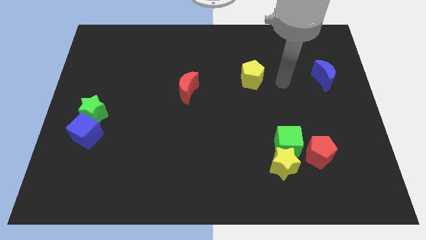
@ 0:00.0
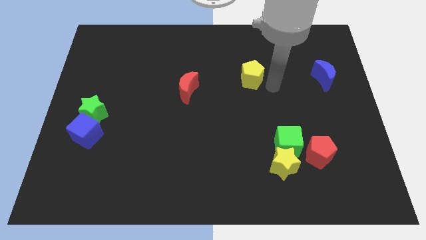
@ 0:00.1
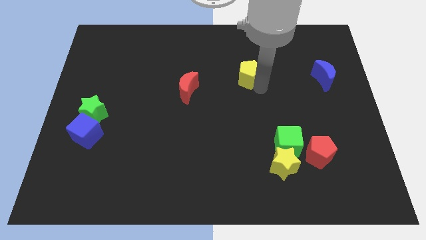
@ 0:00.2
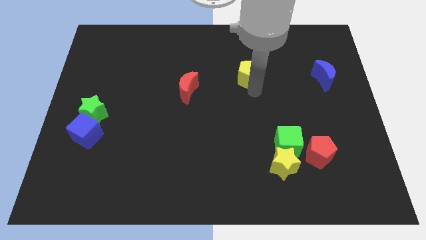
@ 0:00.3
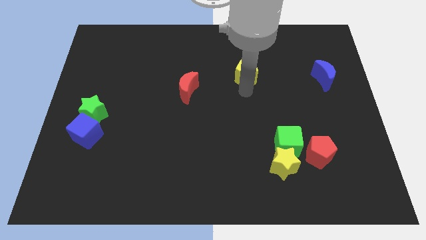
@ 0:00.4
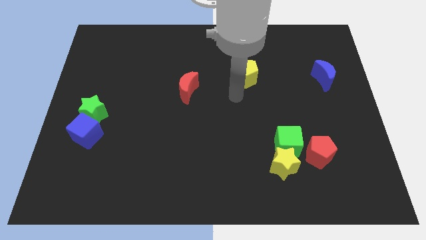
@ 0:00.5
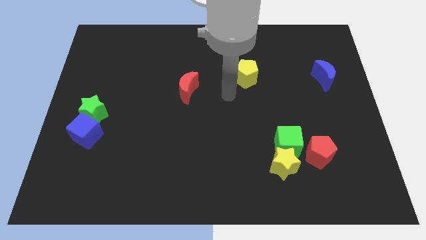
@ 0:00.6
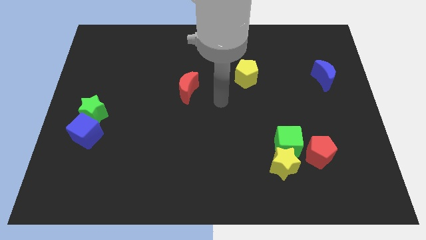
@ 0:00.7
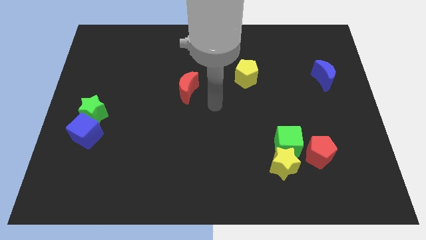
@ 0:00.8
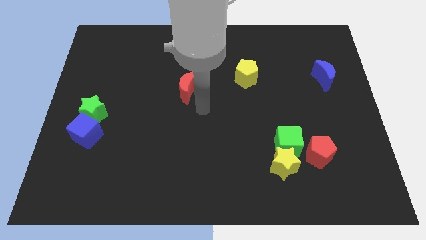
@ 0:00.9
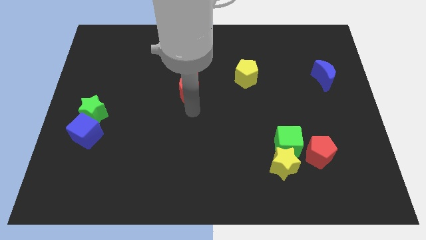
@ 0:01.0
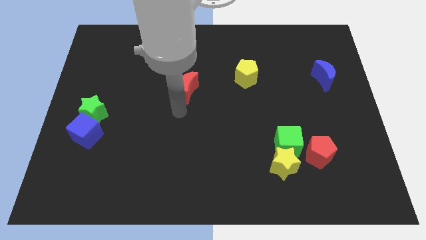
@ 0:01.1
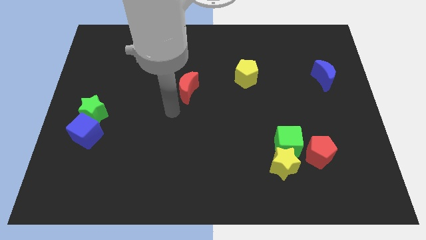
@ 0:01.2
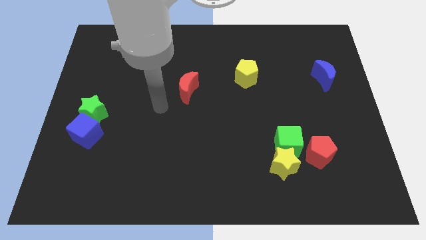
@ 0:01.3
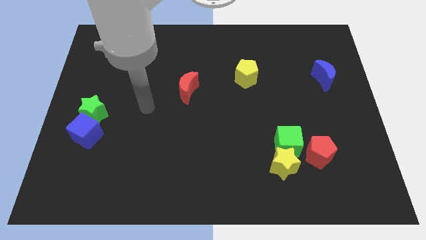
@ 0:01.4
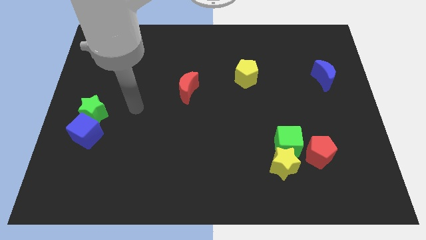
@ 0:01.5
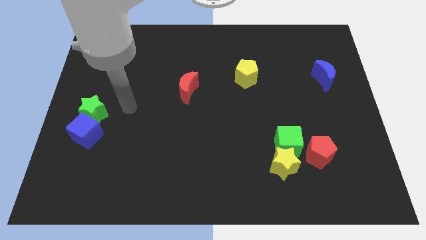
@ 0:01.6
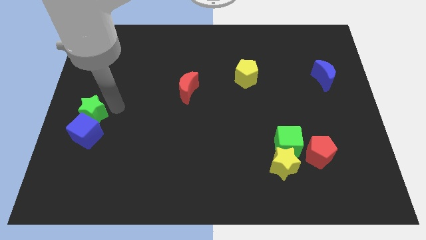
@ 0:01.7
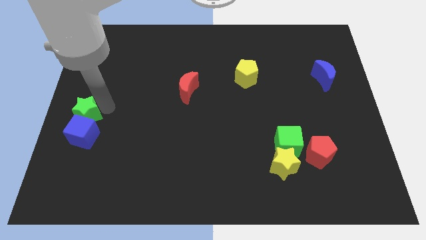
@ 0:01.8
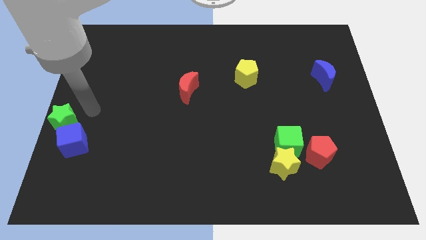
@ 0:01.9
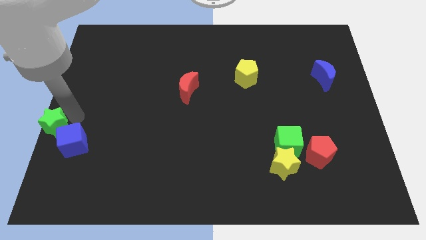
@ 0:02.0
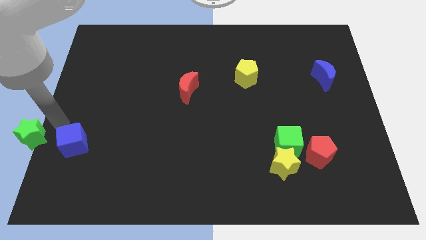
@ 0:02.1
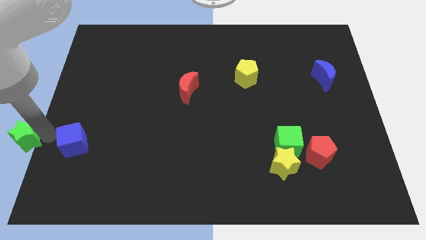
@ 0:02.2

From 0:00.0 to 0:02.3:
pull the blue cube apart from the green star

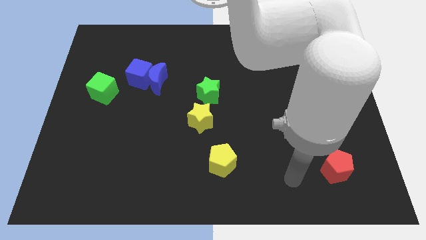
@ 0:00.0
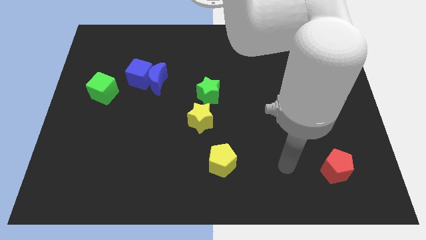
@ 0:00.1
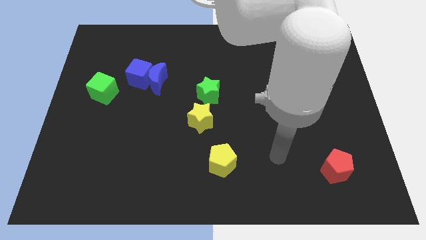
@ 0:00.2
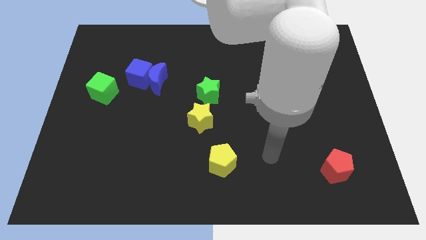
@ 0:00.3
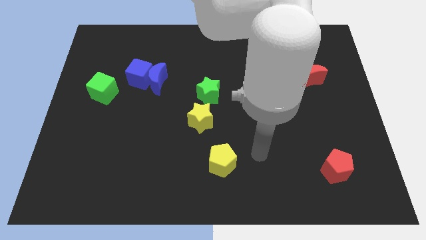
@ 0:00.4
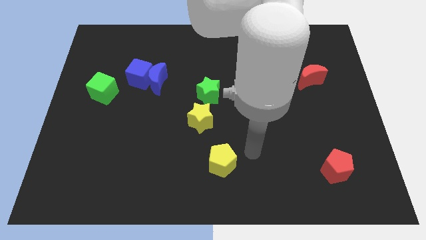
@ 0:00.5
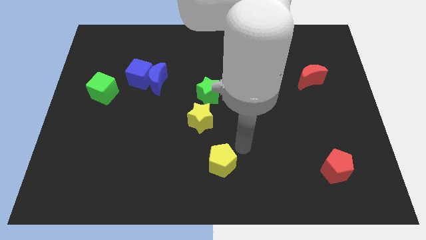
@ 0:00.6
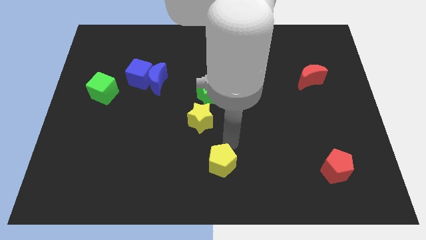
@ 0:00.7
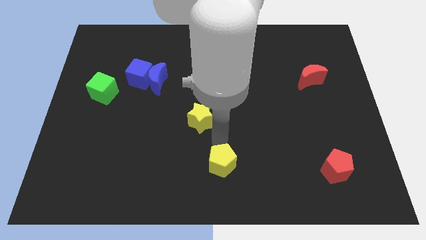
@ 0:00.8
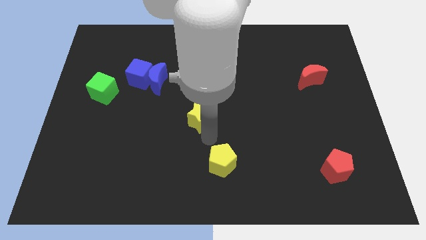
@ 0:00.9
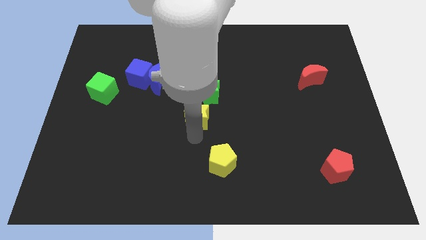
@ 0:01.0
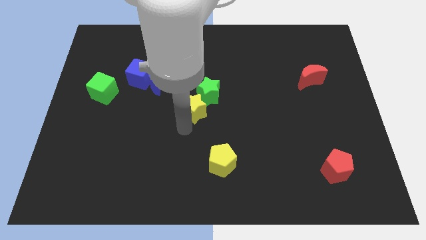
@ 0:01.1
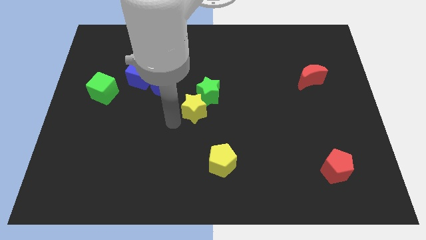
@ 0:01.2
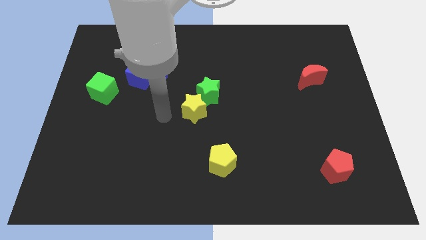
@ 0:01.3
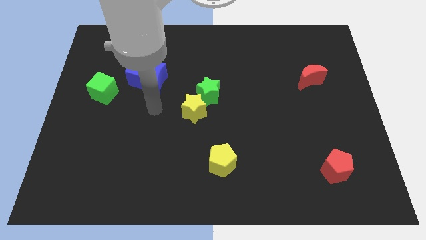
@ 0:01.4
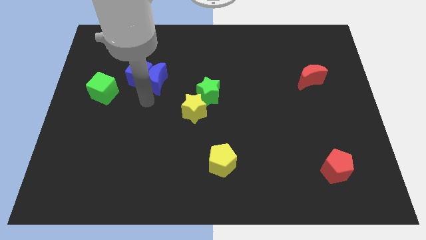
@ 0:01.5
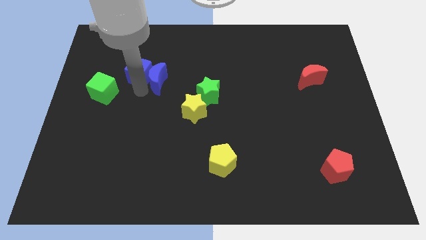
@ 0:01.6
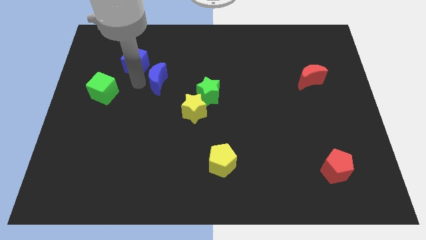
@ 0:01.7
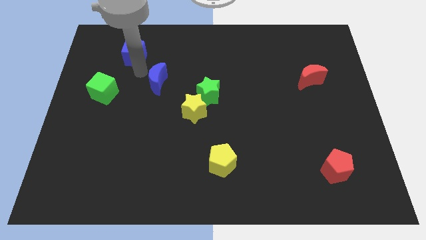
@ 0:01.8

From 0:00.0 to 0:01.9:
move the blue moon away from the blue cube

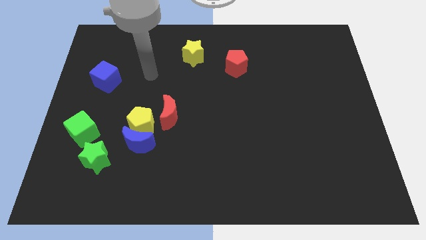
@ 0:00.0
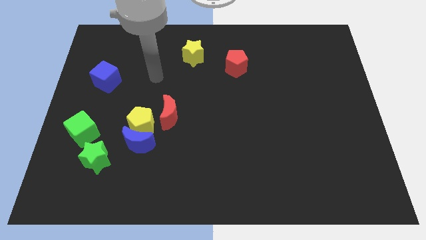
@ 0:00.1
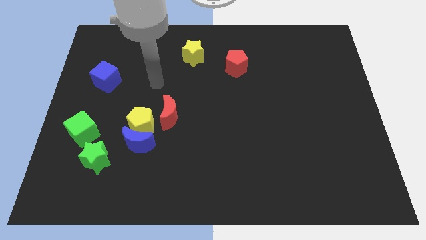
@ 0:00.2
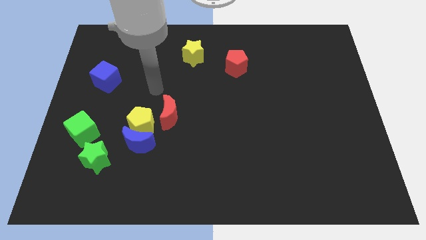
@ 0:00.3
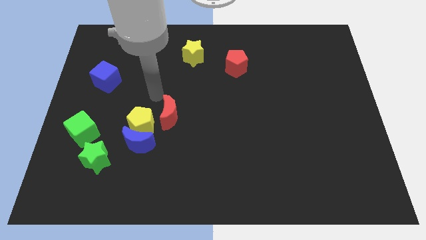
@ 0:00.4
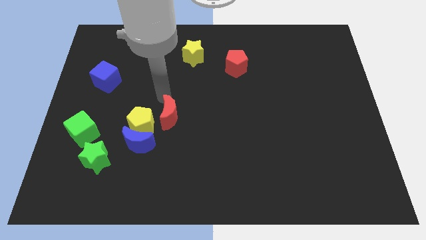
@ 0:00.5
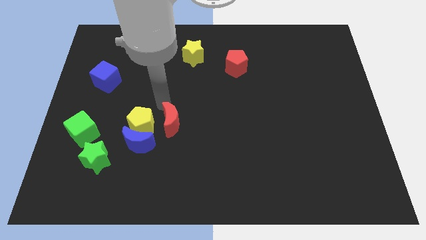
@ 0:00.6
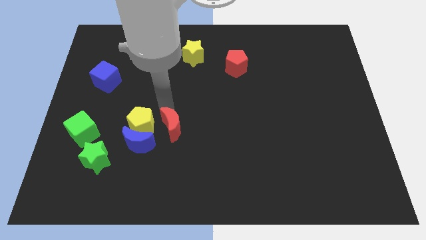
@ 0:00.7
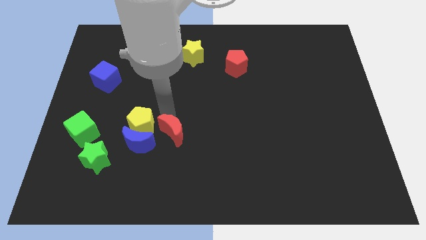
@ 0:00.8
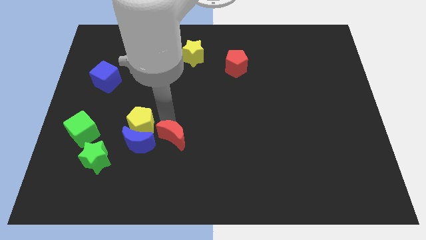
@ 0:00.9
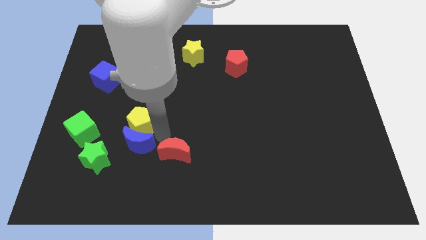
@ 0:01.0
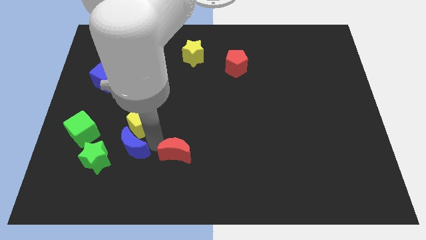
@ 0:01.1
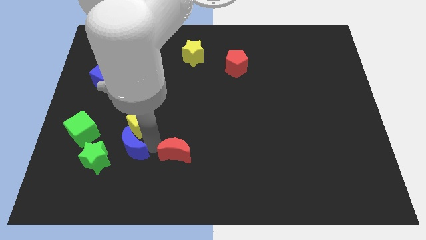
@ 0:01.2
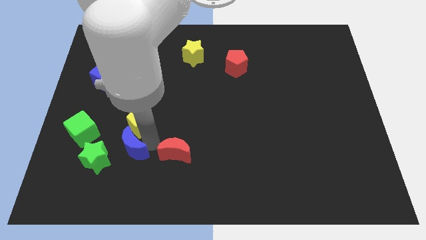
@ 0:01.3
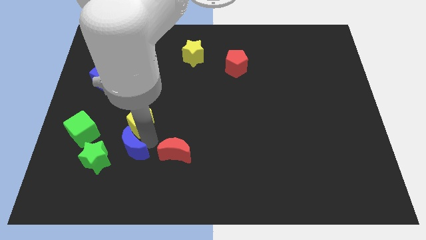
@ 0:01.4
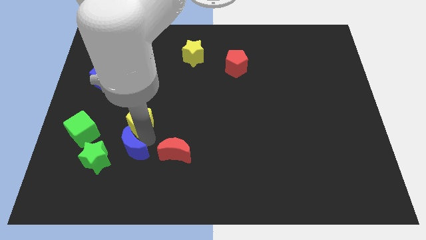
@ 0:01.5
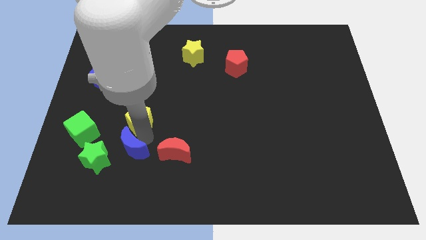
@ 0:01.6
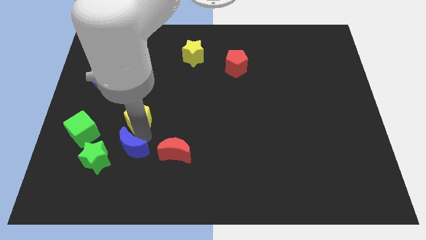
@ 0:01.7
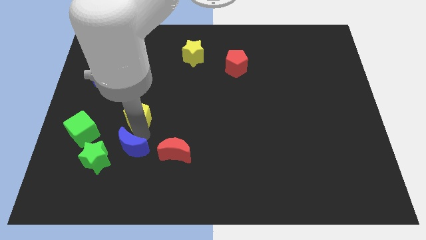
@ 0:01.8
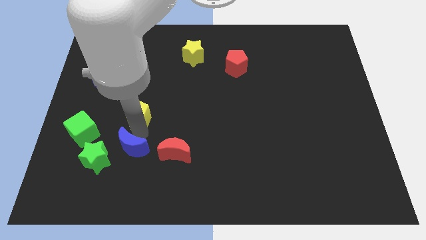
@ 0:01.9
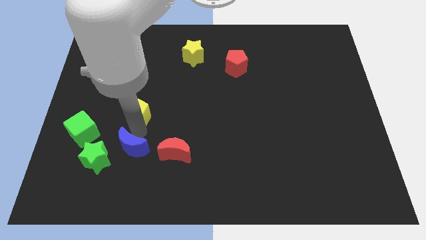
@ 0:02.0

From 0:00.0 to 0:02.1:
pull the yellow pentagon apart from the blue moon and red moon

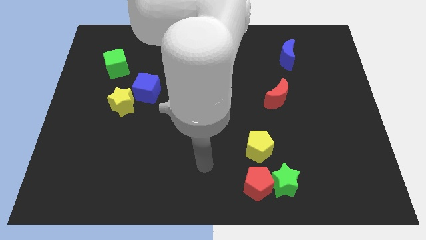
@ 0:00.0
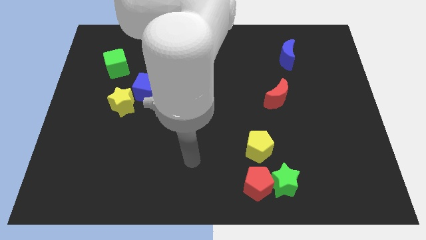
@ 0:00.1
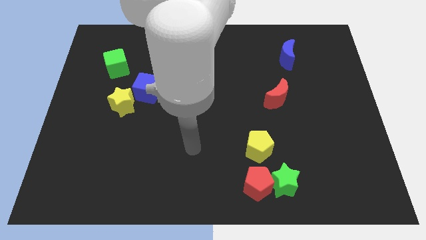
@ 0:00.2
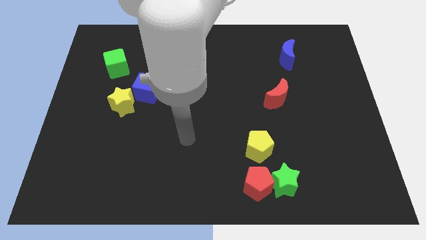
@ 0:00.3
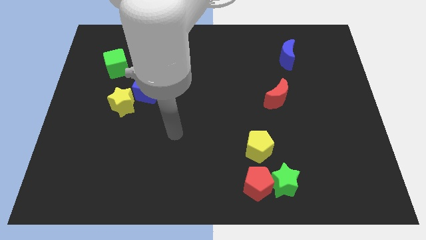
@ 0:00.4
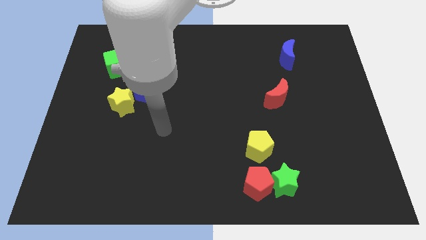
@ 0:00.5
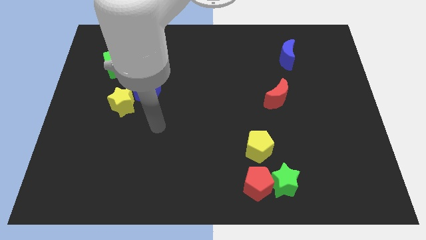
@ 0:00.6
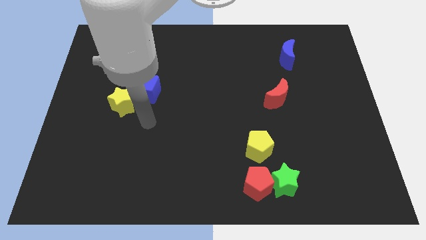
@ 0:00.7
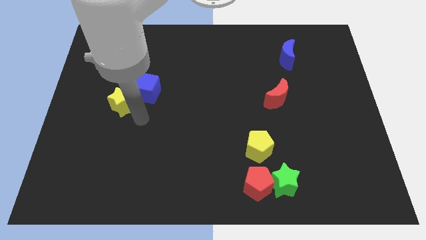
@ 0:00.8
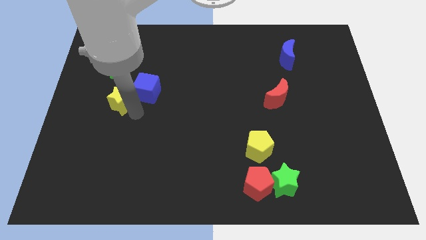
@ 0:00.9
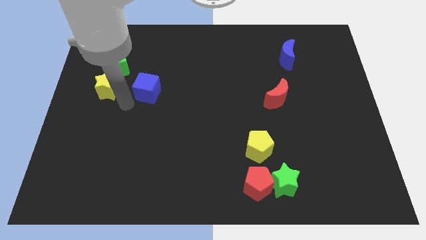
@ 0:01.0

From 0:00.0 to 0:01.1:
move the blue cube away from the yellow star

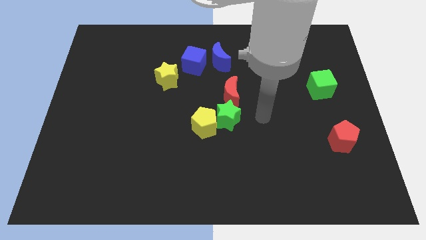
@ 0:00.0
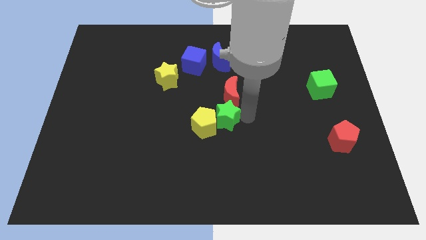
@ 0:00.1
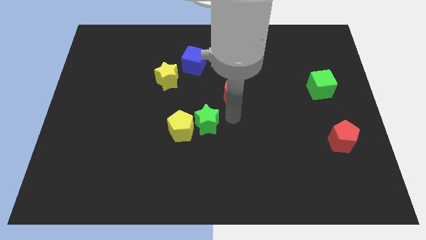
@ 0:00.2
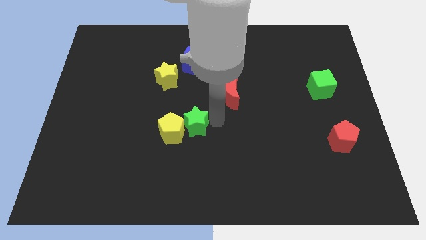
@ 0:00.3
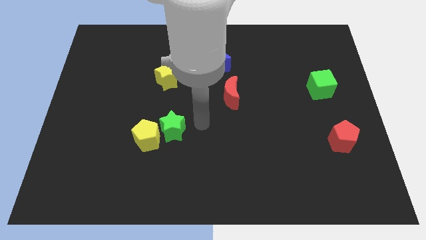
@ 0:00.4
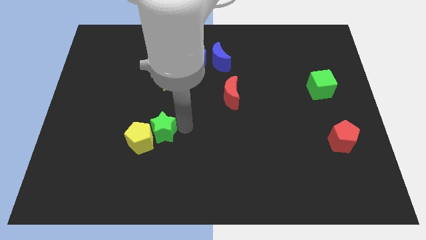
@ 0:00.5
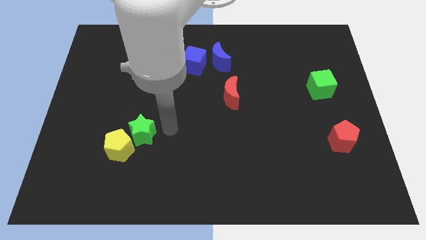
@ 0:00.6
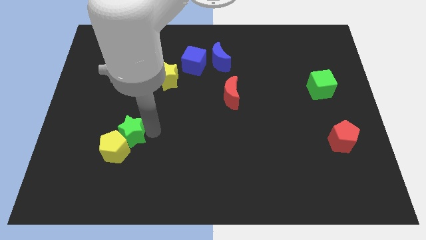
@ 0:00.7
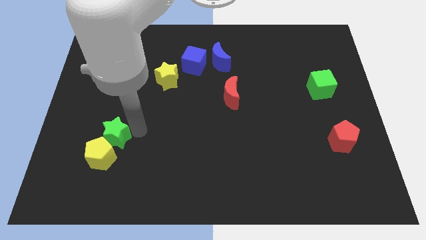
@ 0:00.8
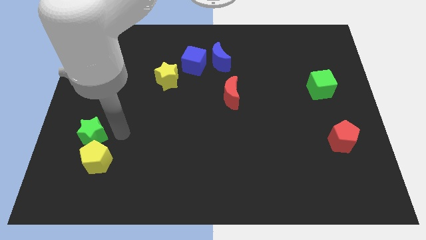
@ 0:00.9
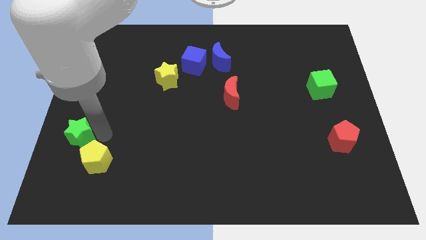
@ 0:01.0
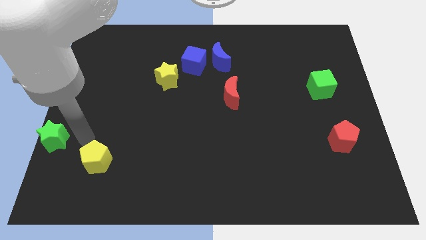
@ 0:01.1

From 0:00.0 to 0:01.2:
separate the yellow pentagon from the green star

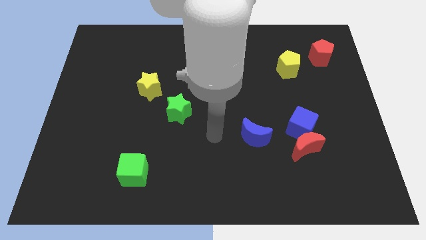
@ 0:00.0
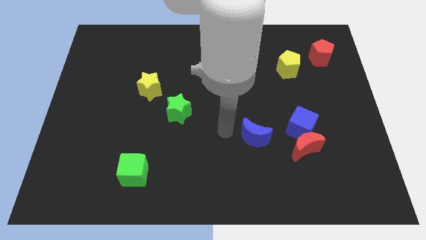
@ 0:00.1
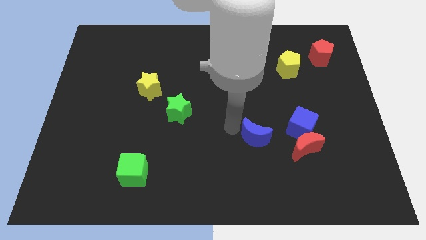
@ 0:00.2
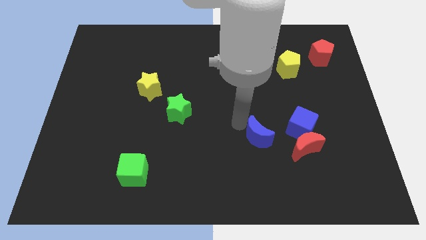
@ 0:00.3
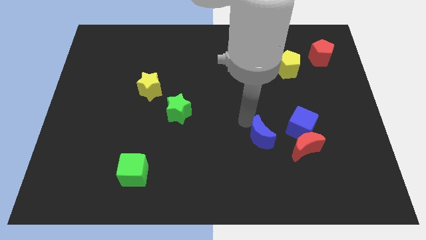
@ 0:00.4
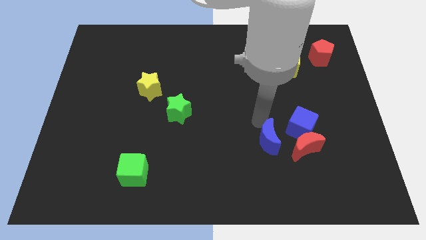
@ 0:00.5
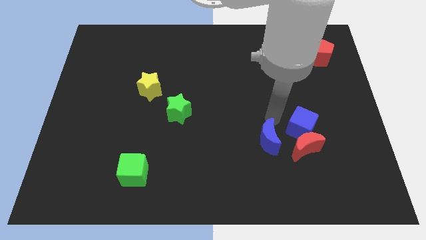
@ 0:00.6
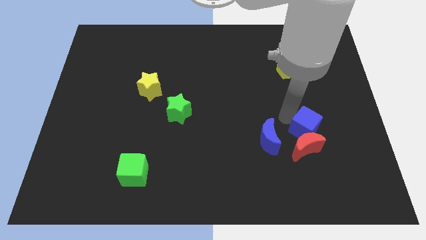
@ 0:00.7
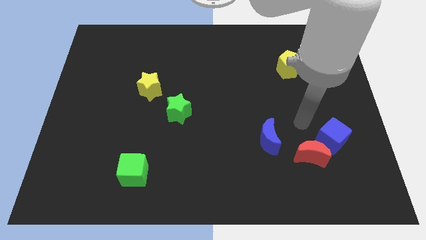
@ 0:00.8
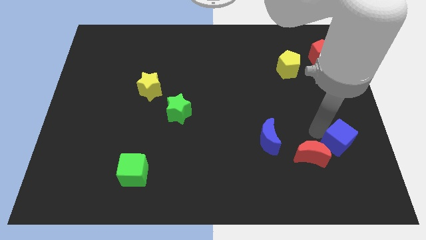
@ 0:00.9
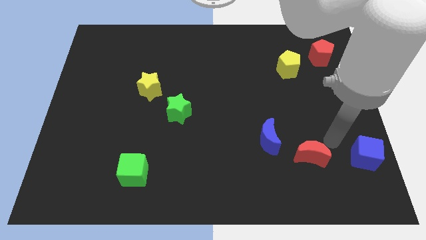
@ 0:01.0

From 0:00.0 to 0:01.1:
separate the red moon from the blue cube
